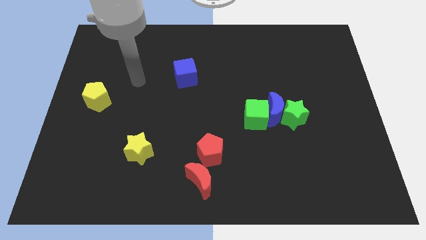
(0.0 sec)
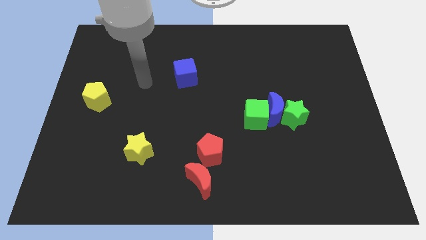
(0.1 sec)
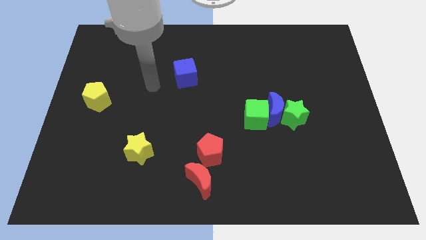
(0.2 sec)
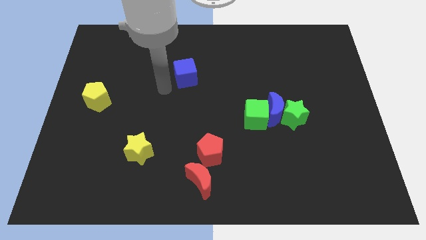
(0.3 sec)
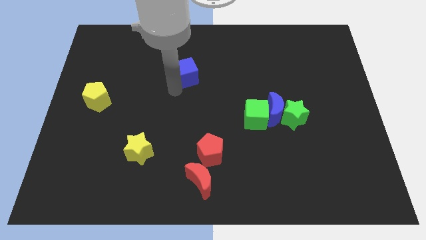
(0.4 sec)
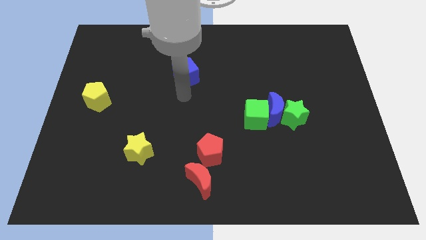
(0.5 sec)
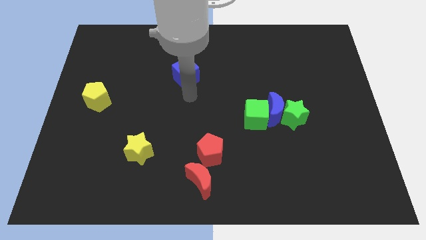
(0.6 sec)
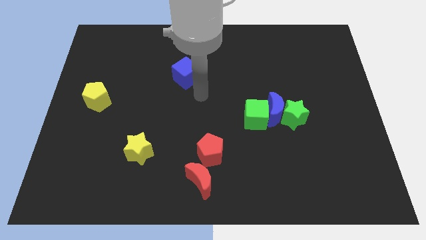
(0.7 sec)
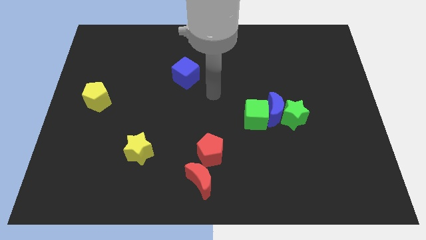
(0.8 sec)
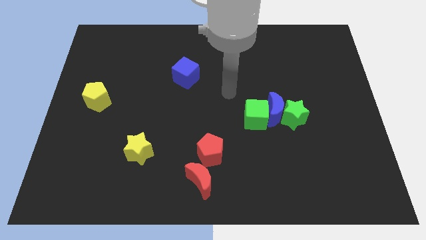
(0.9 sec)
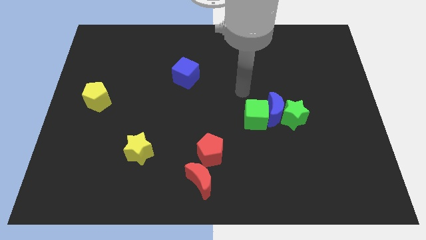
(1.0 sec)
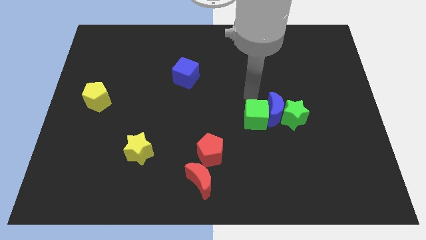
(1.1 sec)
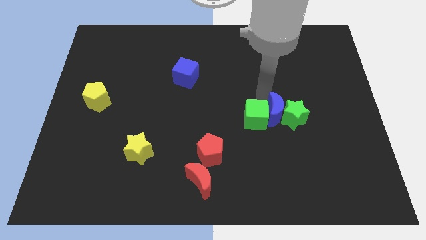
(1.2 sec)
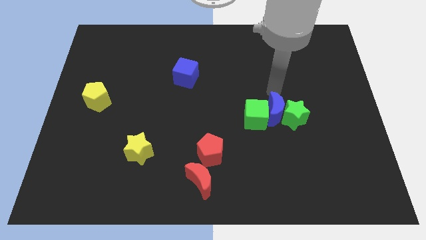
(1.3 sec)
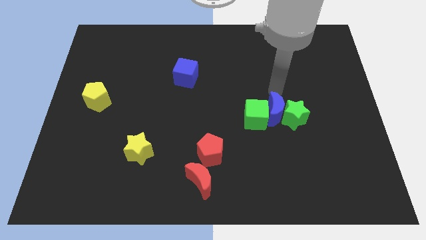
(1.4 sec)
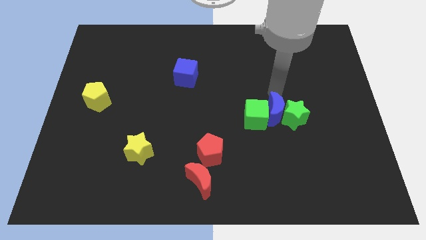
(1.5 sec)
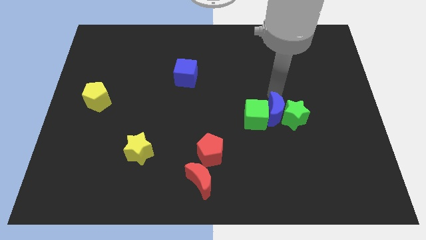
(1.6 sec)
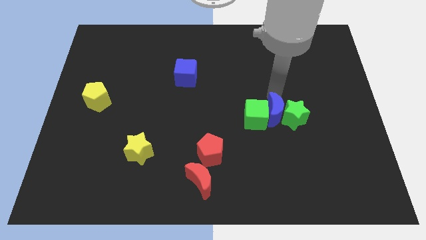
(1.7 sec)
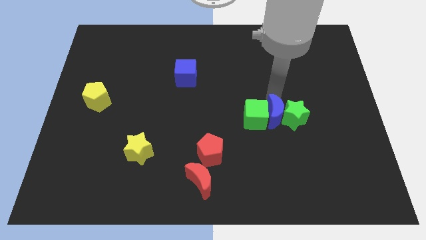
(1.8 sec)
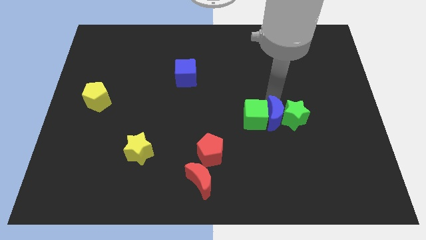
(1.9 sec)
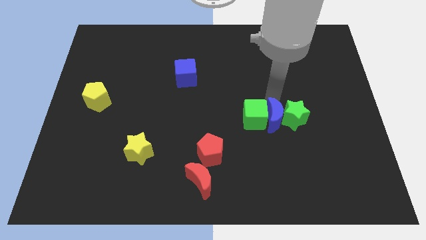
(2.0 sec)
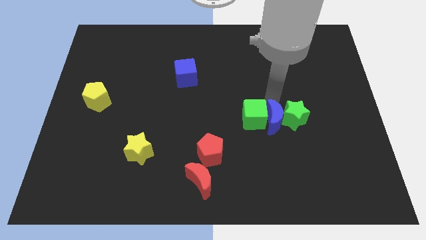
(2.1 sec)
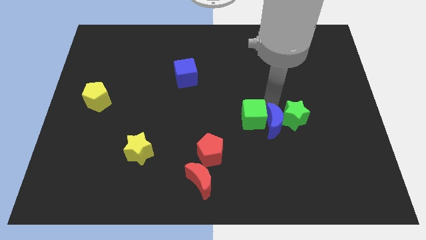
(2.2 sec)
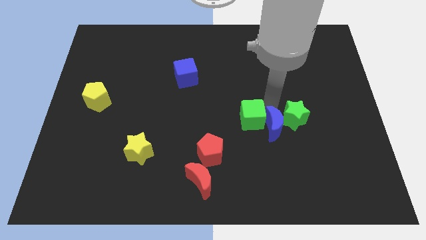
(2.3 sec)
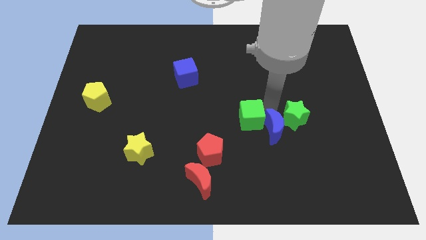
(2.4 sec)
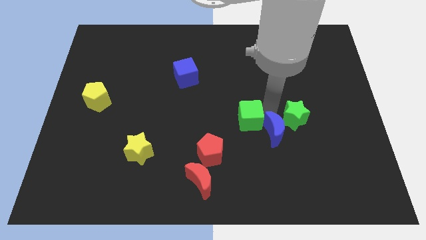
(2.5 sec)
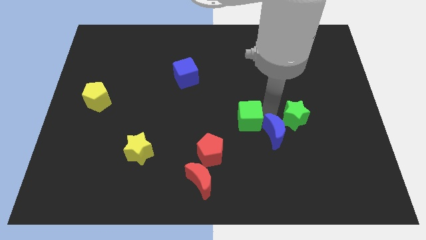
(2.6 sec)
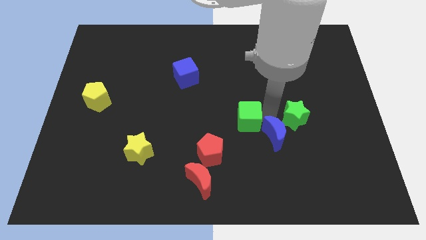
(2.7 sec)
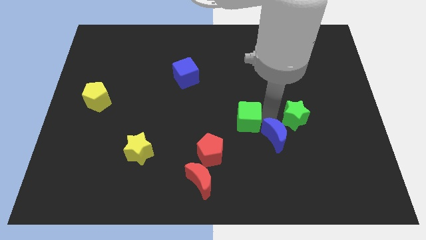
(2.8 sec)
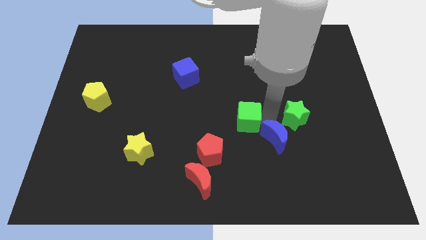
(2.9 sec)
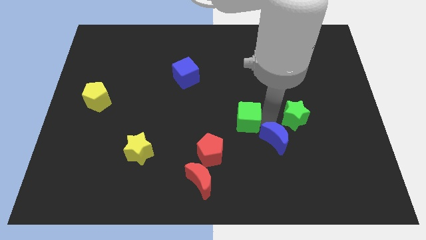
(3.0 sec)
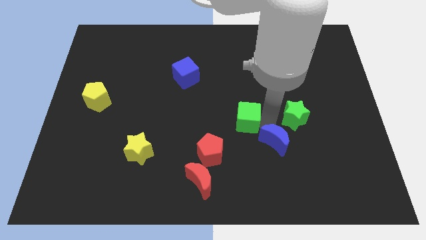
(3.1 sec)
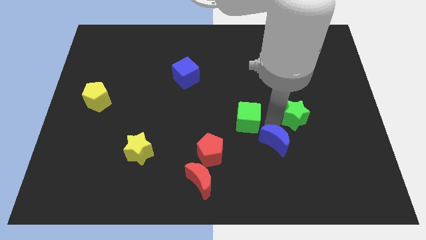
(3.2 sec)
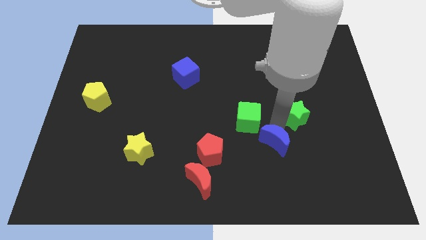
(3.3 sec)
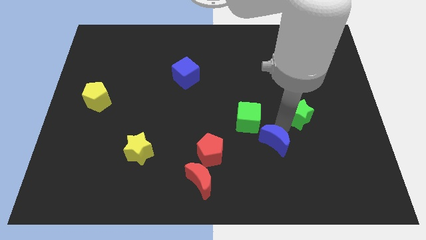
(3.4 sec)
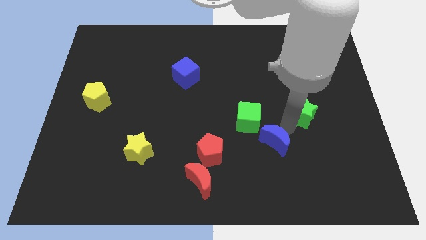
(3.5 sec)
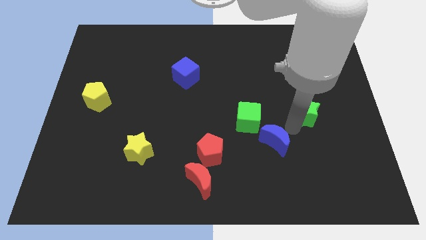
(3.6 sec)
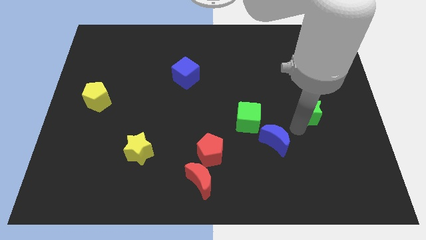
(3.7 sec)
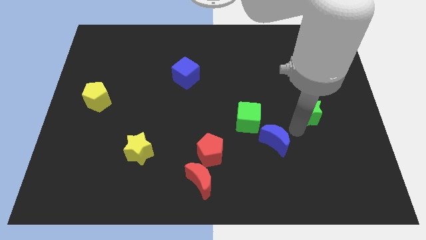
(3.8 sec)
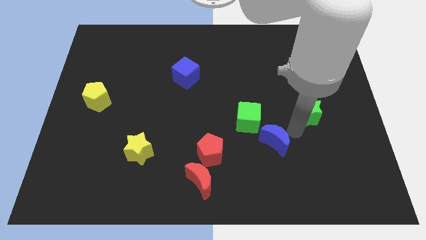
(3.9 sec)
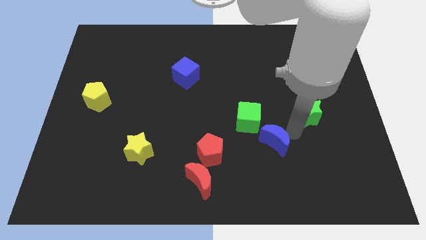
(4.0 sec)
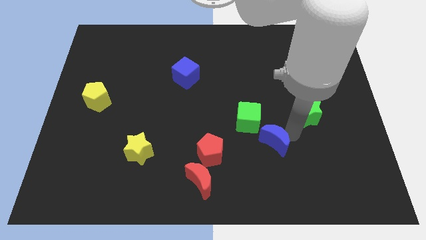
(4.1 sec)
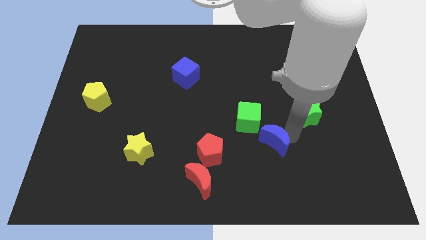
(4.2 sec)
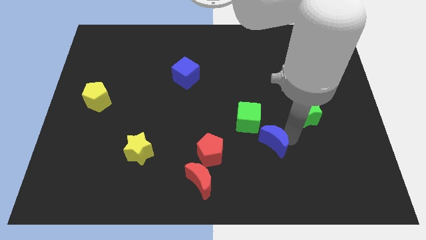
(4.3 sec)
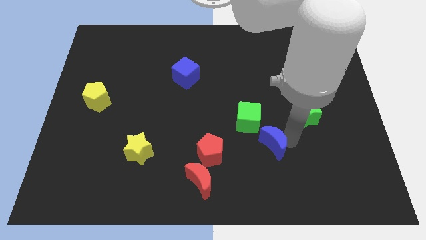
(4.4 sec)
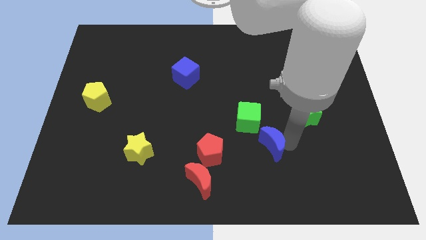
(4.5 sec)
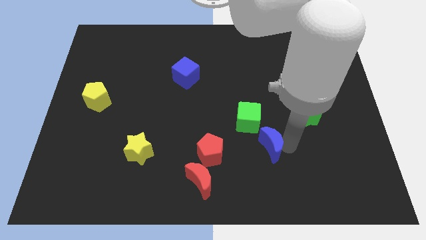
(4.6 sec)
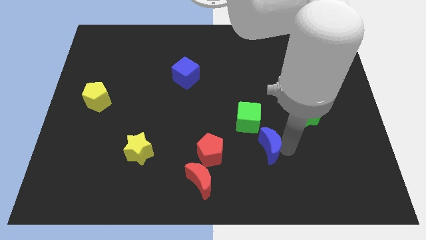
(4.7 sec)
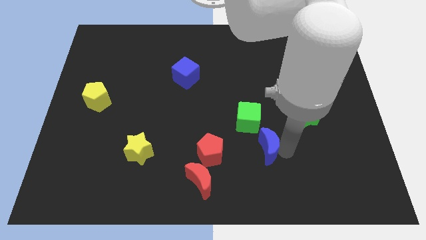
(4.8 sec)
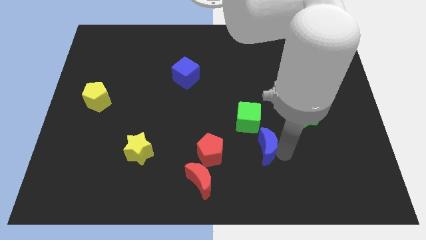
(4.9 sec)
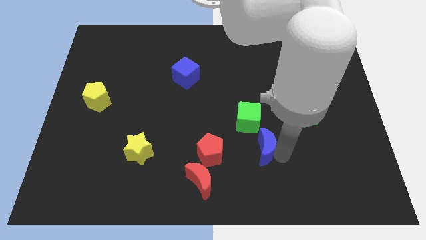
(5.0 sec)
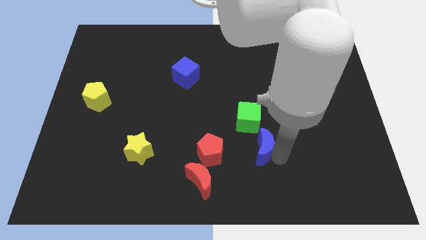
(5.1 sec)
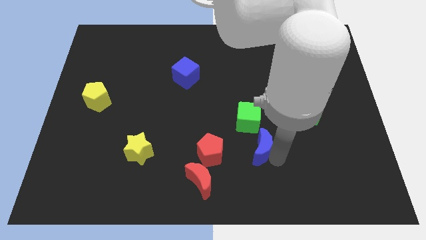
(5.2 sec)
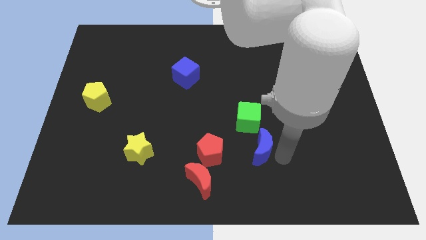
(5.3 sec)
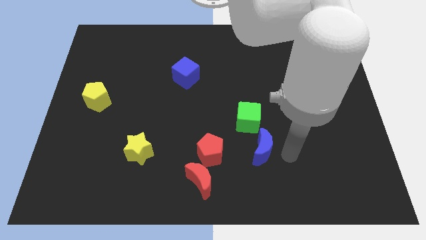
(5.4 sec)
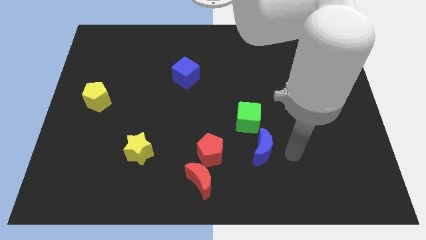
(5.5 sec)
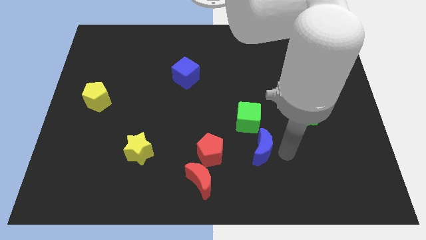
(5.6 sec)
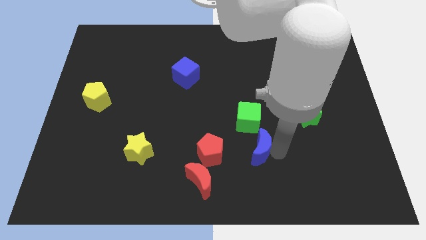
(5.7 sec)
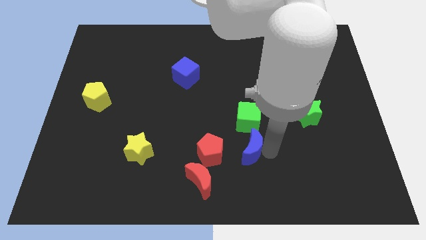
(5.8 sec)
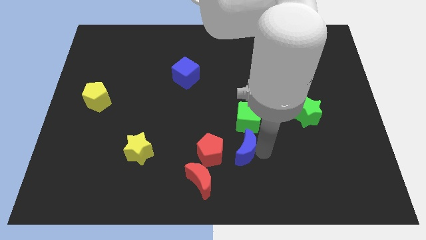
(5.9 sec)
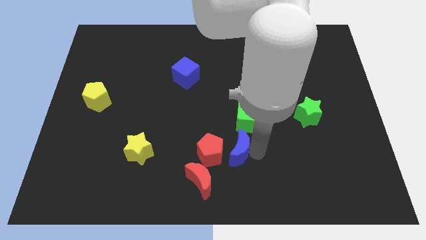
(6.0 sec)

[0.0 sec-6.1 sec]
move the blue moon towards the red pentagon

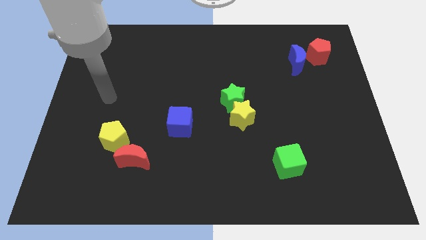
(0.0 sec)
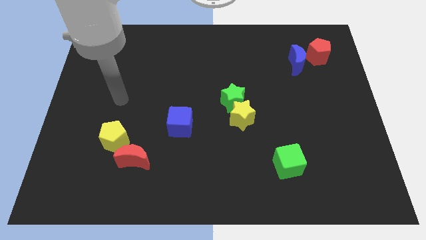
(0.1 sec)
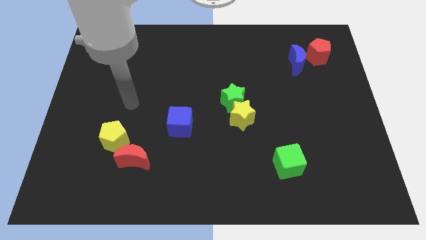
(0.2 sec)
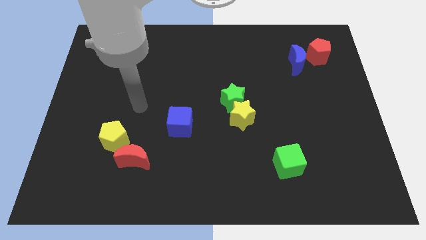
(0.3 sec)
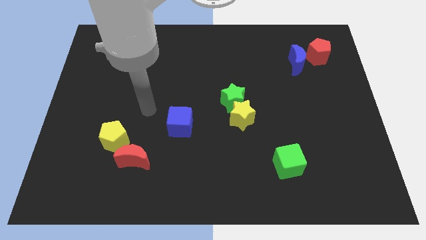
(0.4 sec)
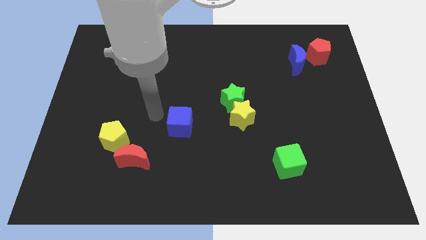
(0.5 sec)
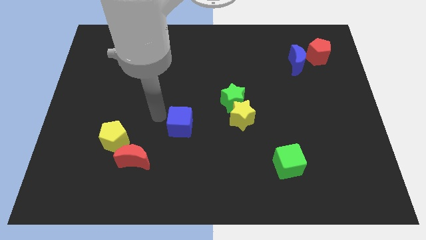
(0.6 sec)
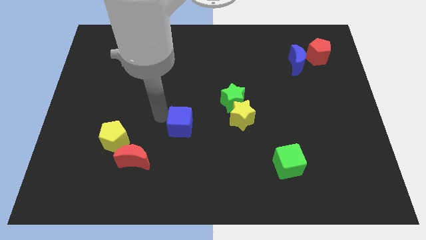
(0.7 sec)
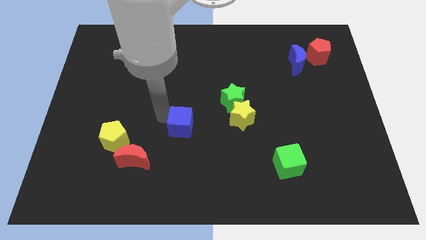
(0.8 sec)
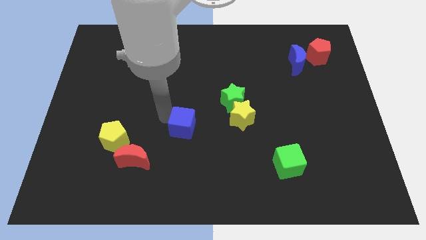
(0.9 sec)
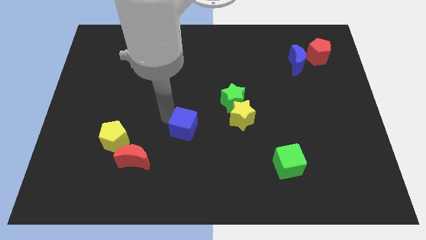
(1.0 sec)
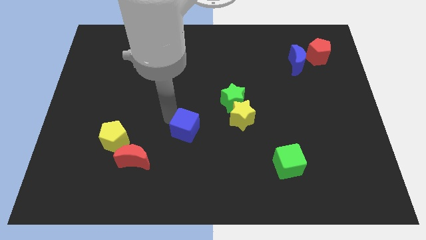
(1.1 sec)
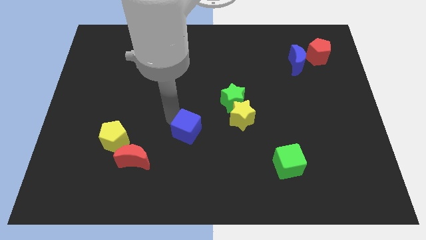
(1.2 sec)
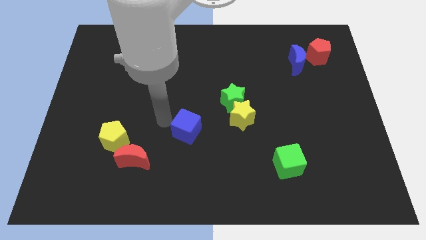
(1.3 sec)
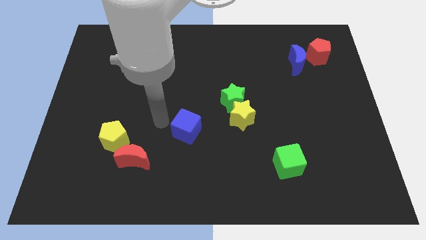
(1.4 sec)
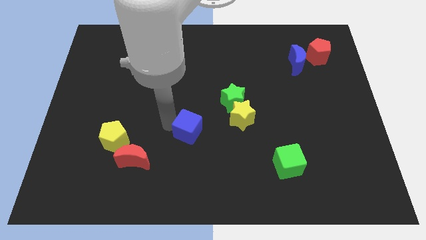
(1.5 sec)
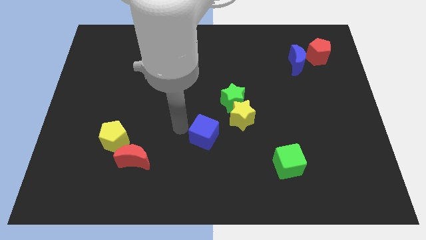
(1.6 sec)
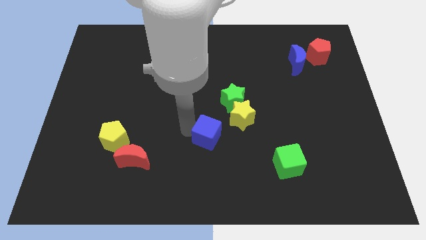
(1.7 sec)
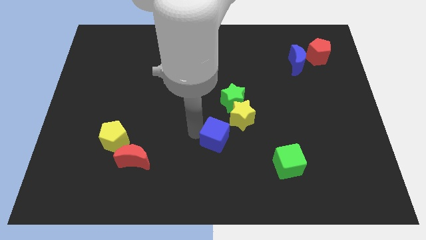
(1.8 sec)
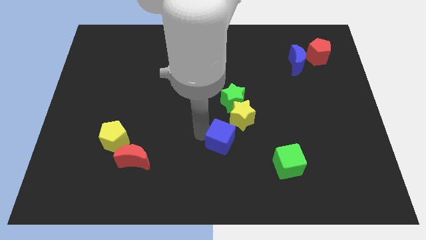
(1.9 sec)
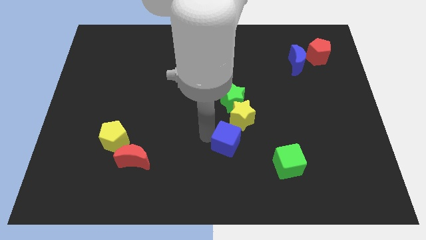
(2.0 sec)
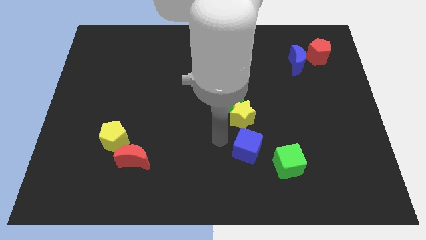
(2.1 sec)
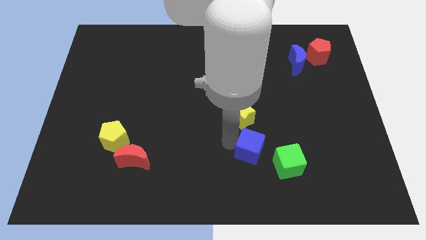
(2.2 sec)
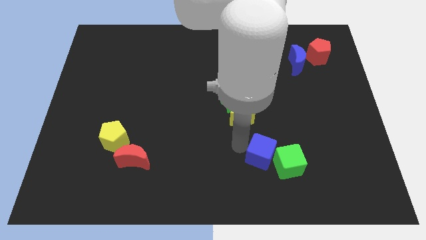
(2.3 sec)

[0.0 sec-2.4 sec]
slide the blue cube close to the green cube
